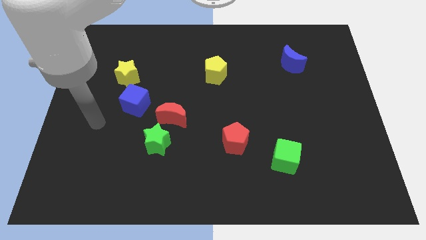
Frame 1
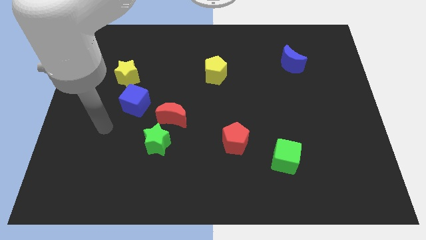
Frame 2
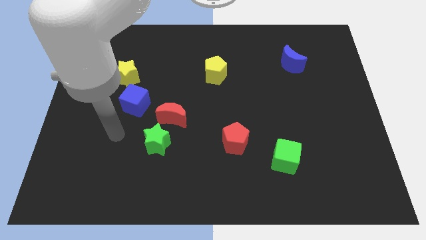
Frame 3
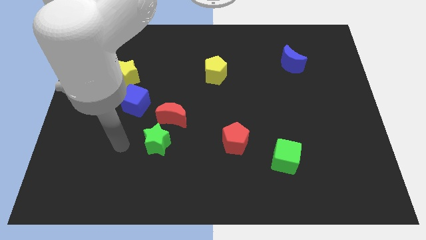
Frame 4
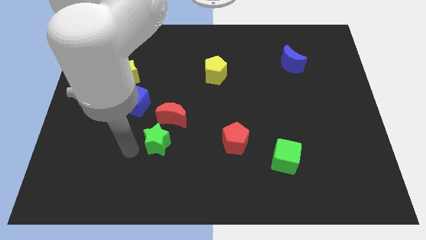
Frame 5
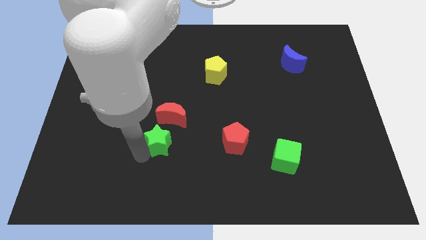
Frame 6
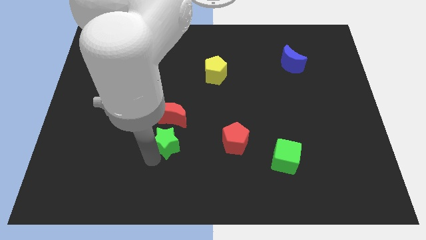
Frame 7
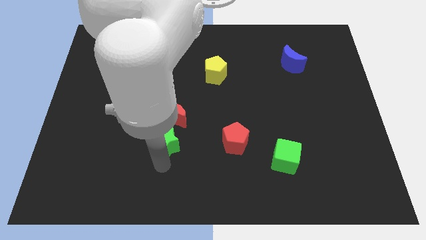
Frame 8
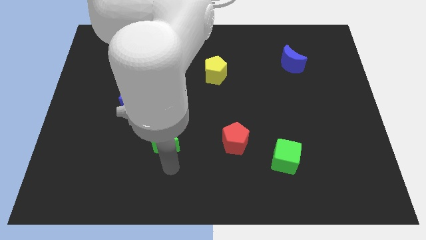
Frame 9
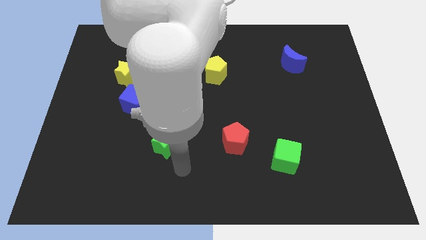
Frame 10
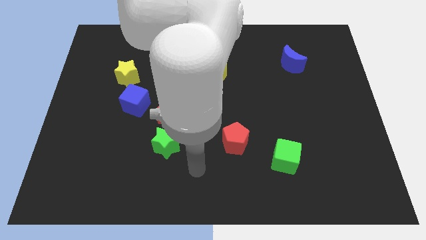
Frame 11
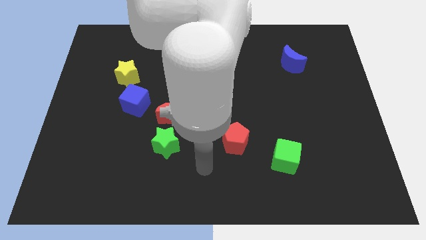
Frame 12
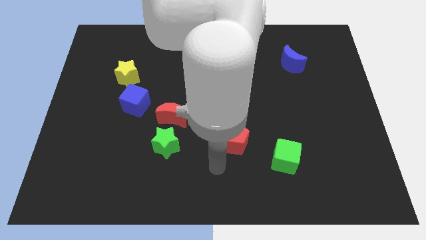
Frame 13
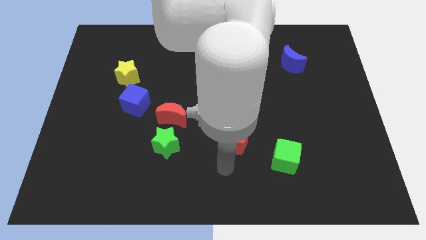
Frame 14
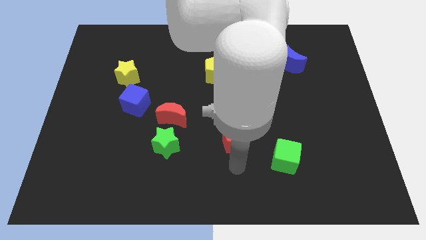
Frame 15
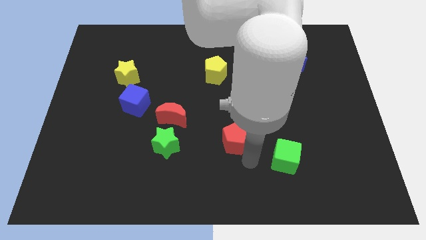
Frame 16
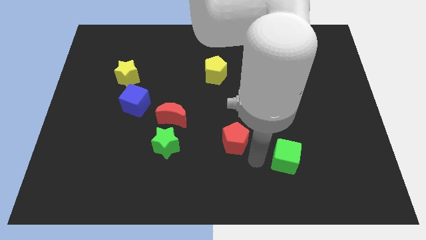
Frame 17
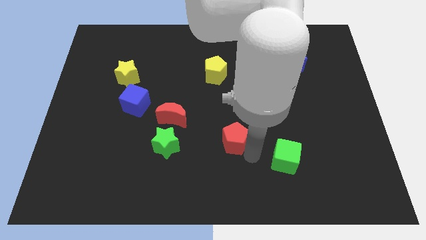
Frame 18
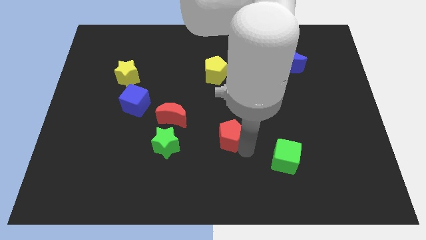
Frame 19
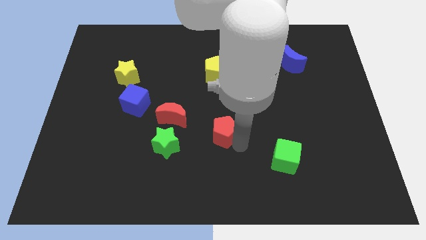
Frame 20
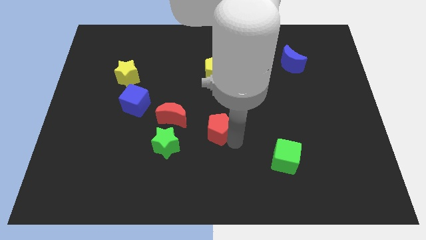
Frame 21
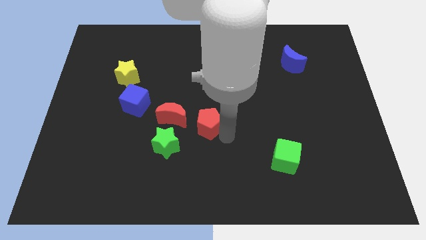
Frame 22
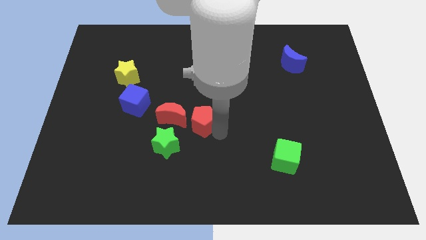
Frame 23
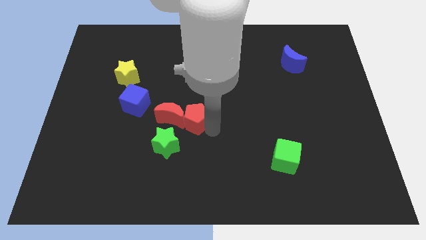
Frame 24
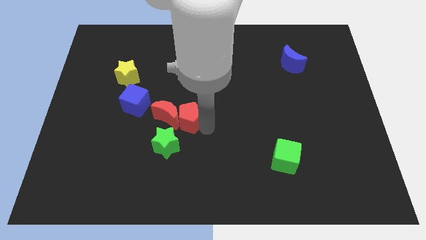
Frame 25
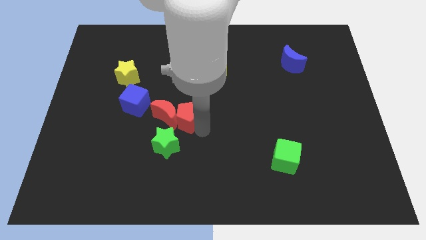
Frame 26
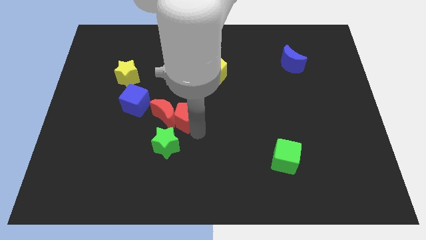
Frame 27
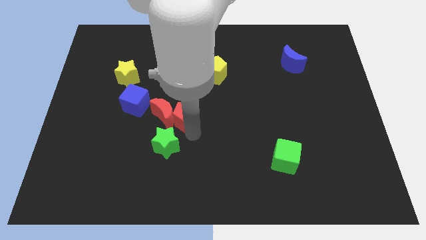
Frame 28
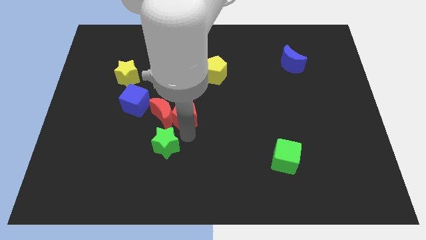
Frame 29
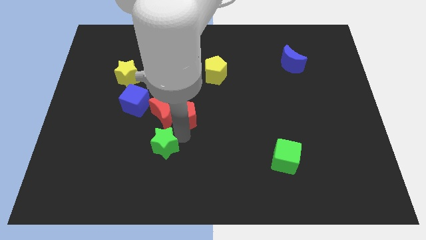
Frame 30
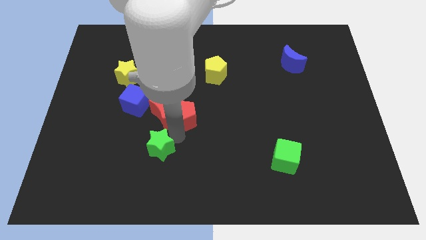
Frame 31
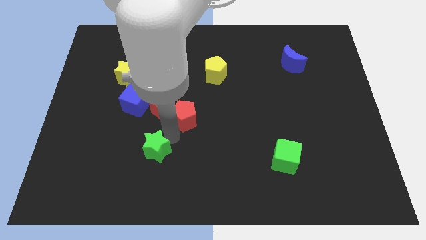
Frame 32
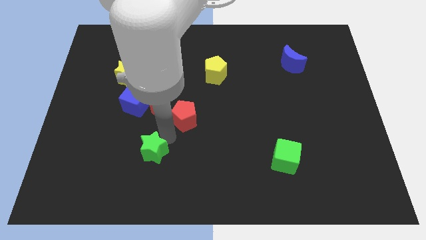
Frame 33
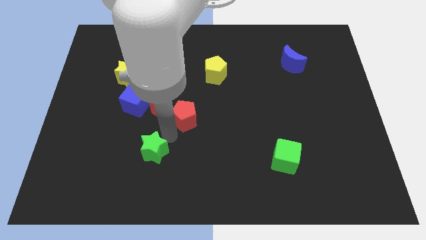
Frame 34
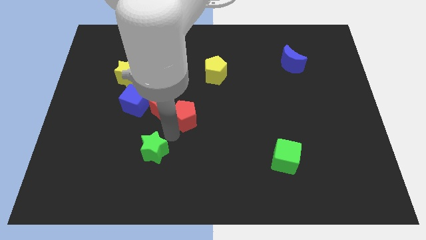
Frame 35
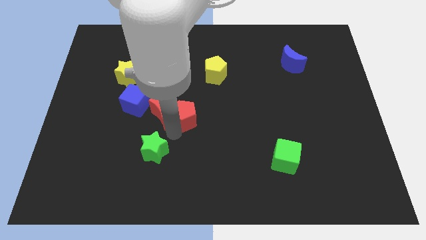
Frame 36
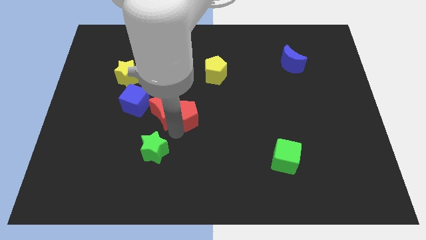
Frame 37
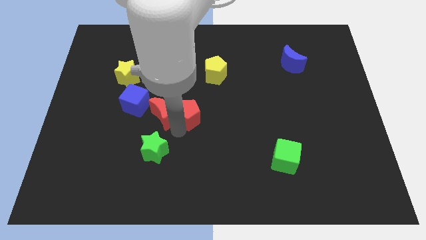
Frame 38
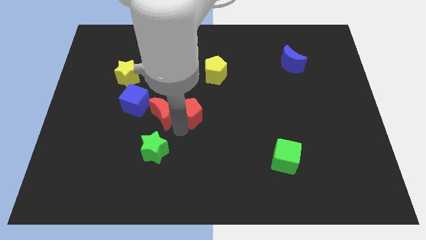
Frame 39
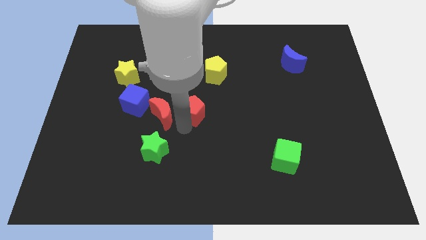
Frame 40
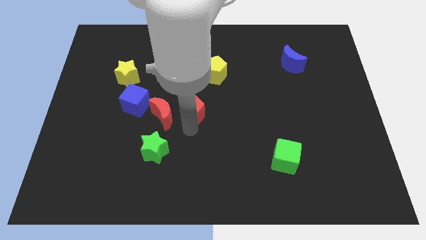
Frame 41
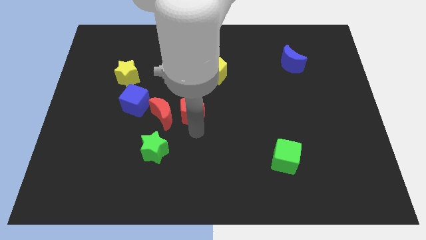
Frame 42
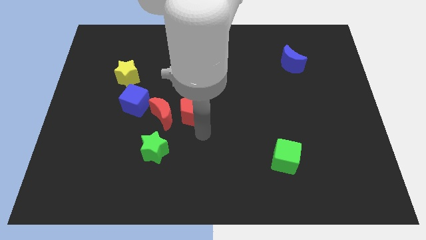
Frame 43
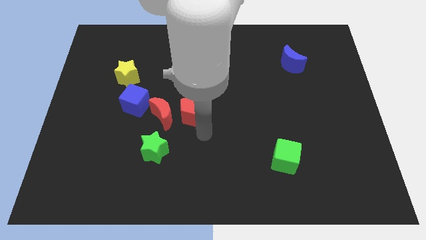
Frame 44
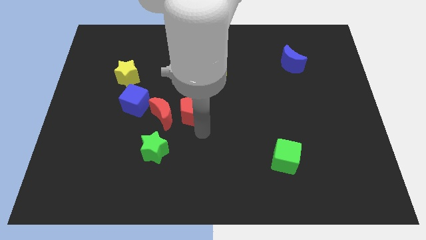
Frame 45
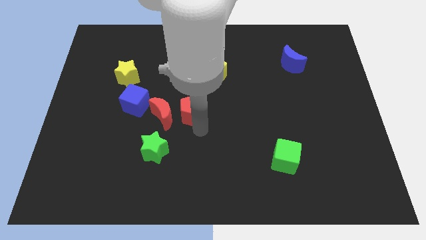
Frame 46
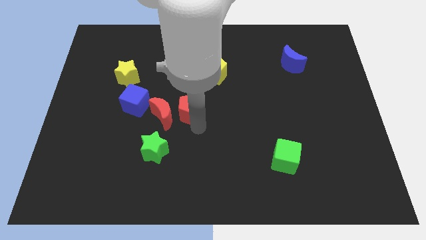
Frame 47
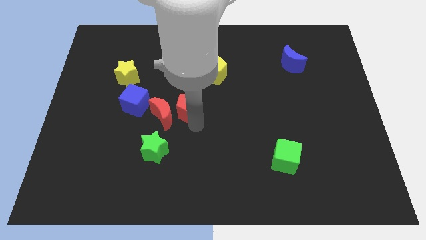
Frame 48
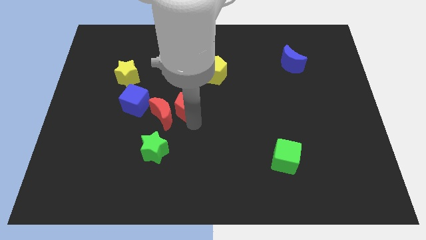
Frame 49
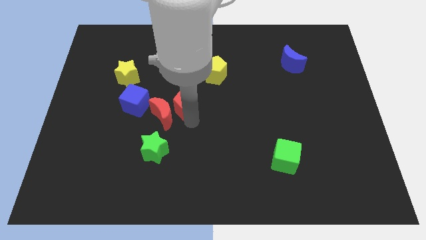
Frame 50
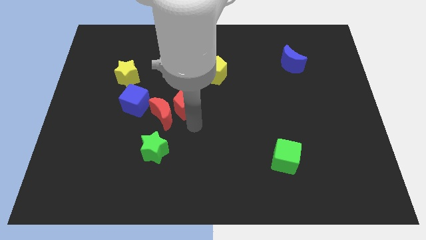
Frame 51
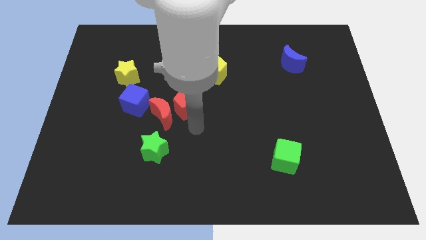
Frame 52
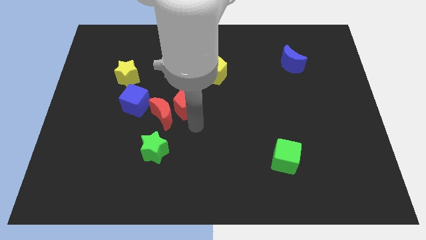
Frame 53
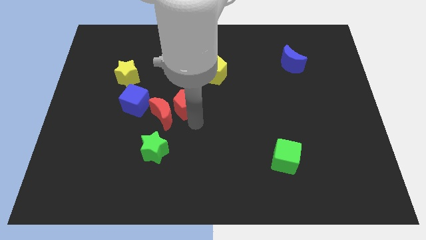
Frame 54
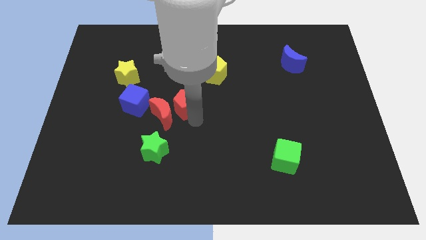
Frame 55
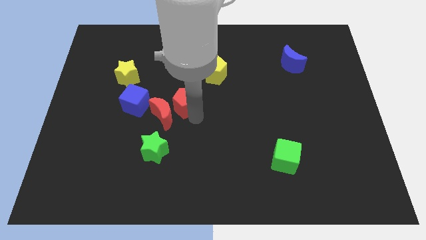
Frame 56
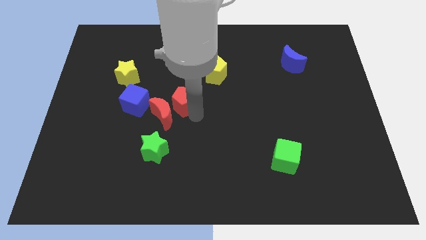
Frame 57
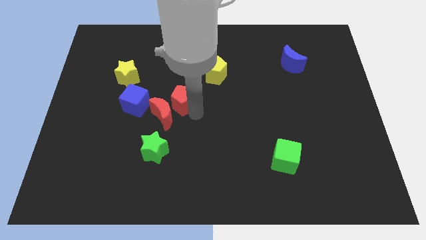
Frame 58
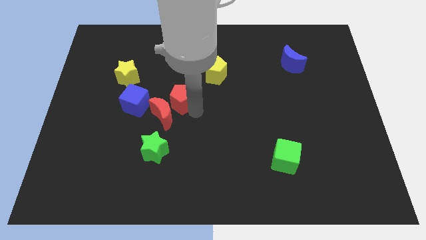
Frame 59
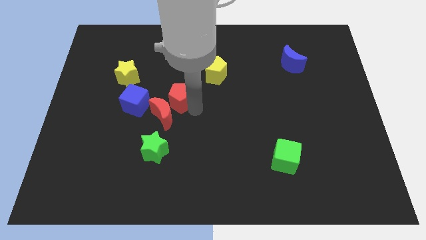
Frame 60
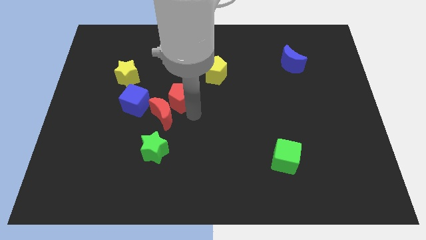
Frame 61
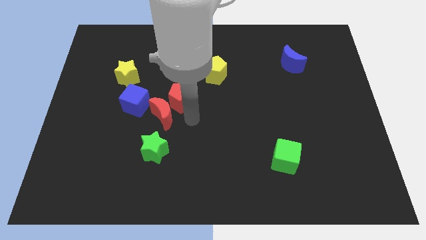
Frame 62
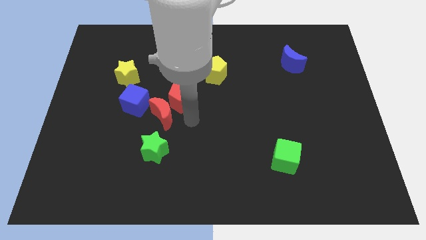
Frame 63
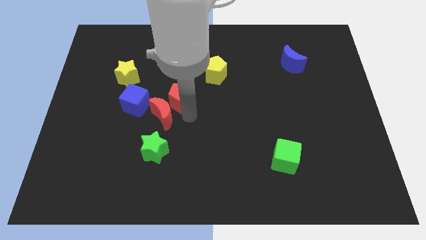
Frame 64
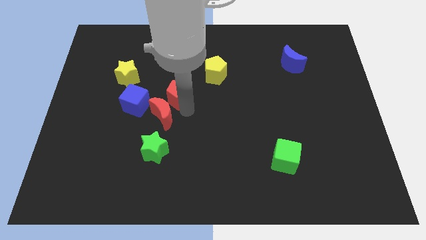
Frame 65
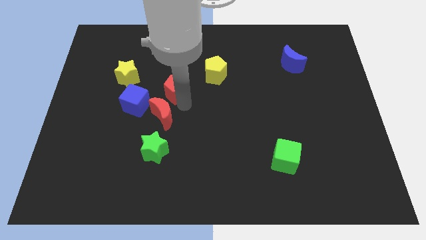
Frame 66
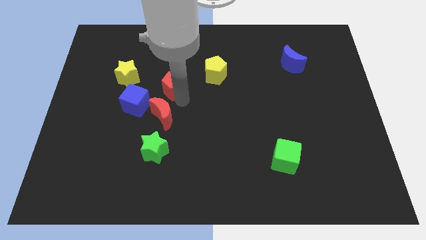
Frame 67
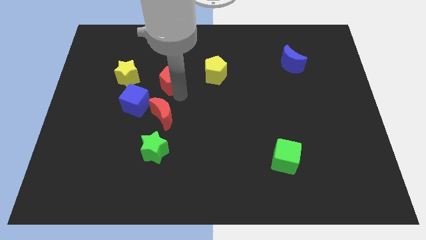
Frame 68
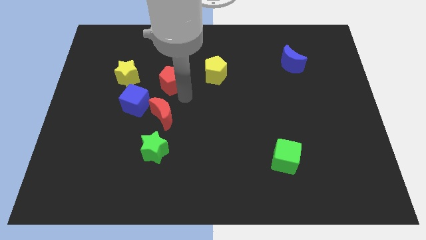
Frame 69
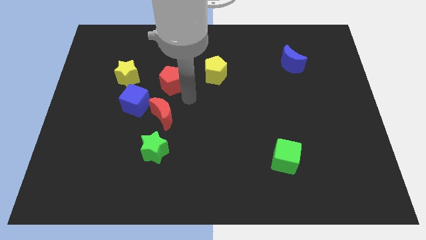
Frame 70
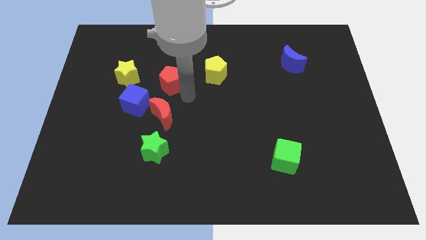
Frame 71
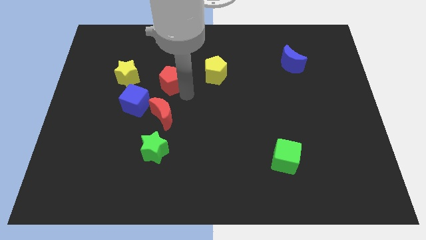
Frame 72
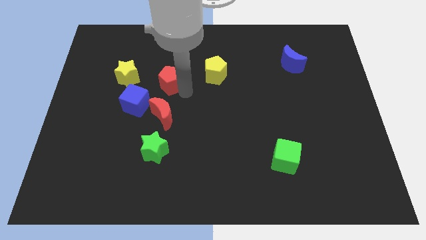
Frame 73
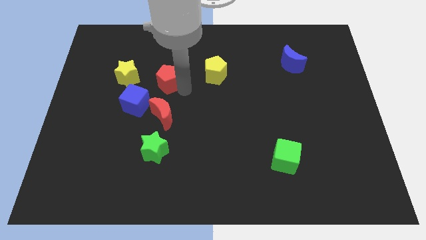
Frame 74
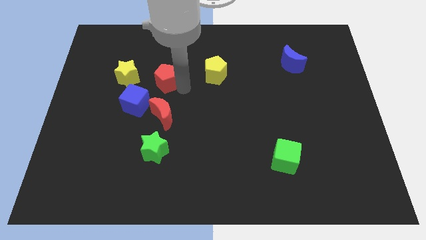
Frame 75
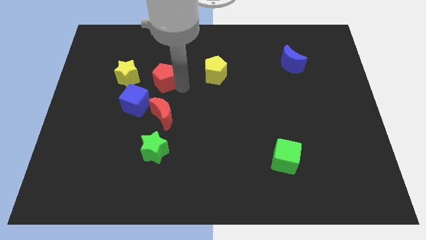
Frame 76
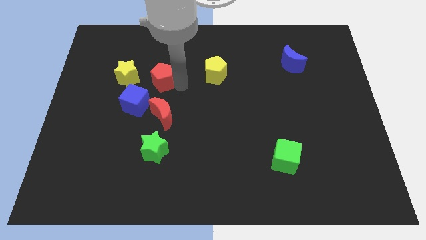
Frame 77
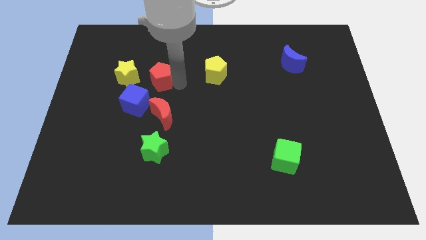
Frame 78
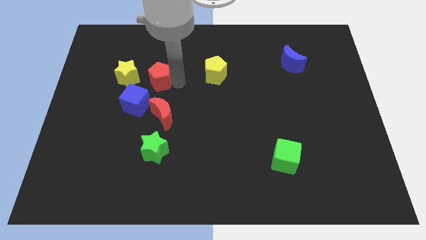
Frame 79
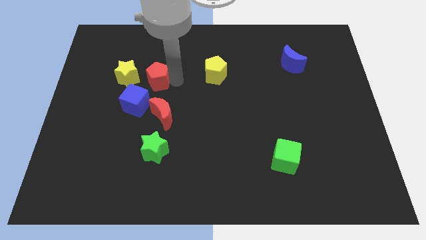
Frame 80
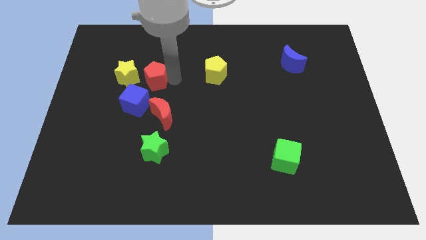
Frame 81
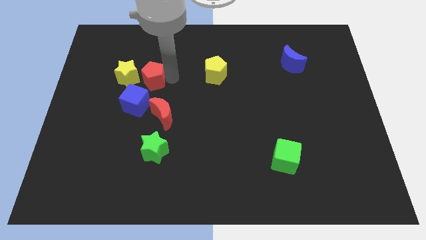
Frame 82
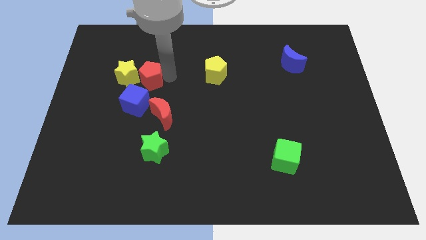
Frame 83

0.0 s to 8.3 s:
put the red pentagon to the top right side of the yellow star
